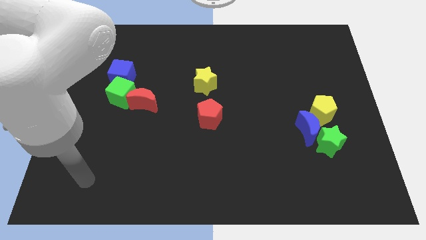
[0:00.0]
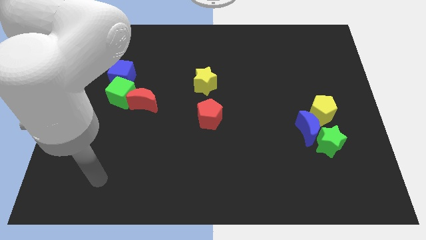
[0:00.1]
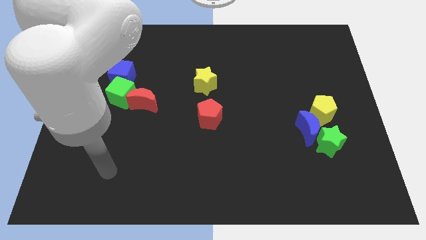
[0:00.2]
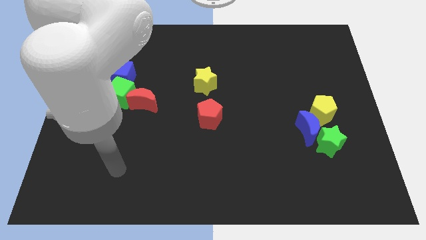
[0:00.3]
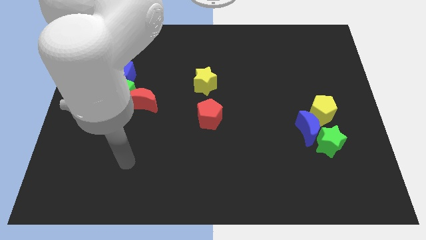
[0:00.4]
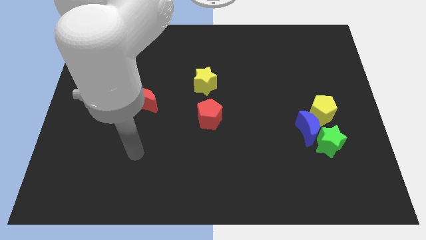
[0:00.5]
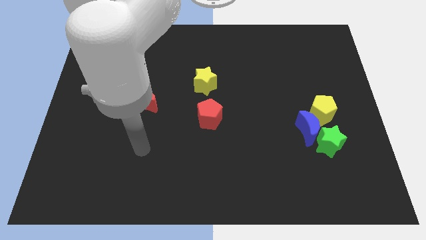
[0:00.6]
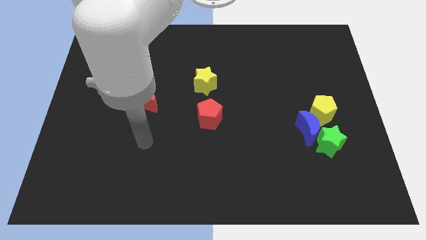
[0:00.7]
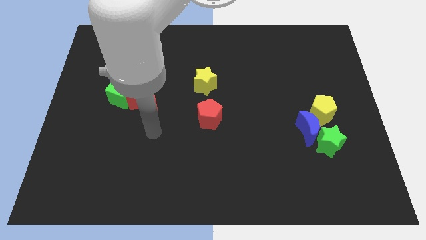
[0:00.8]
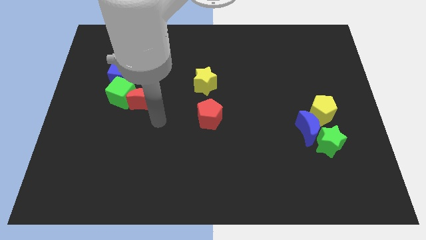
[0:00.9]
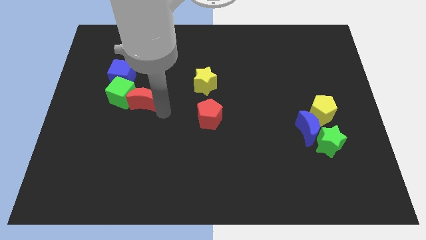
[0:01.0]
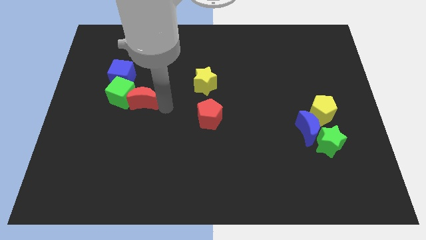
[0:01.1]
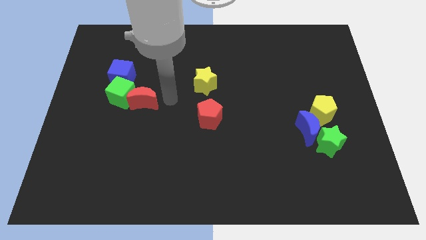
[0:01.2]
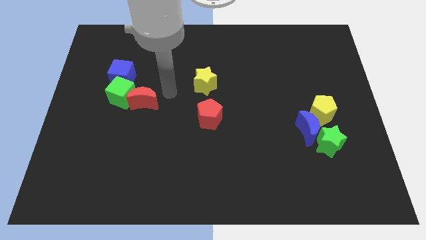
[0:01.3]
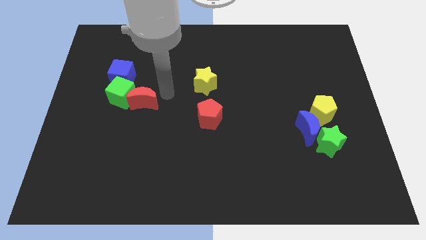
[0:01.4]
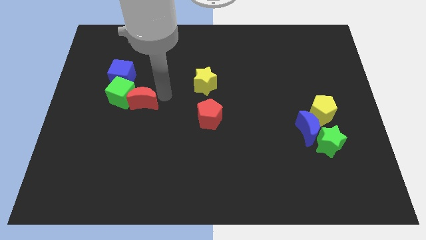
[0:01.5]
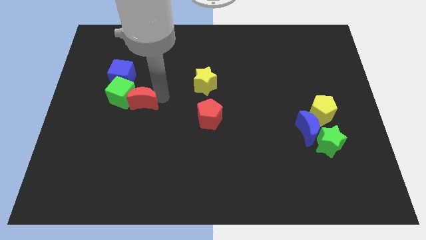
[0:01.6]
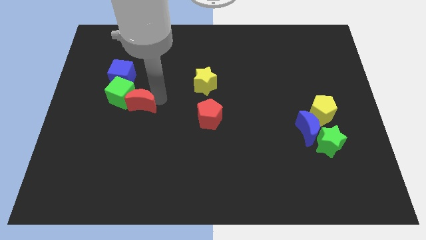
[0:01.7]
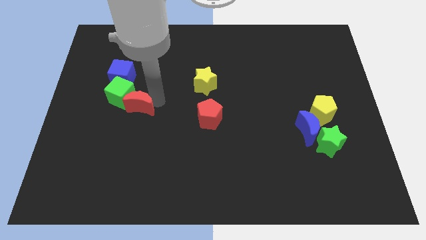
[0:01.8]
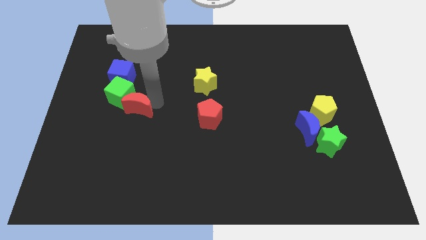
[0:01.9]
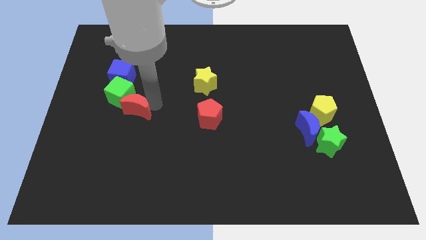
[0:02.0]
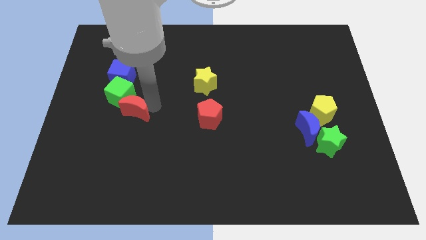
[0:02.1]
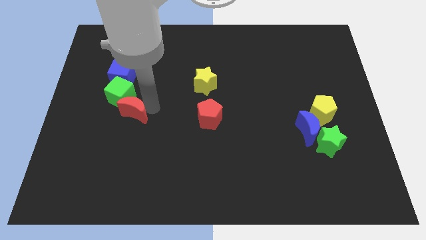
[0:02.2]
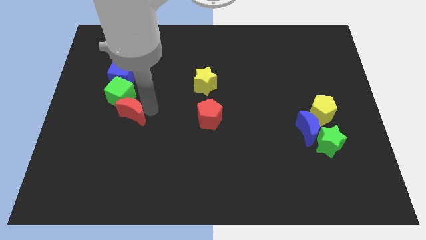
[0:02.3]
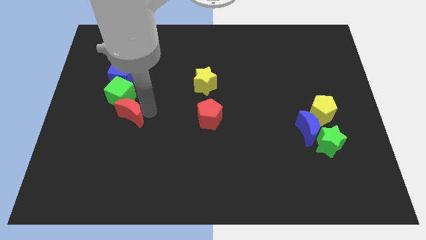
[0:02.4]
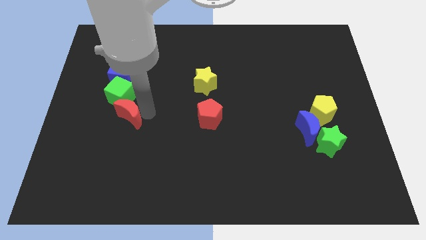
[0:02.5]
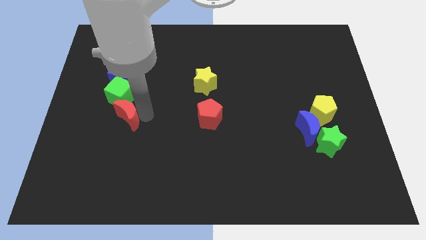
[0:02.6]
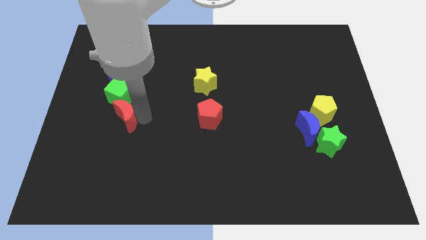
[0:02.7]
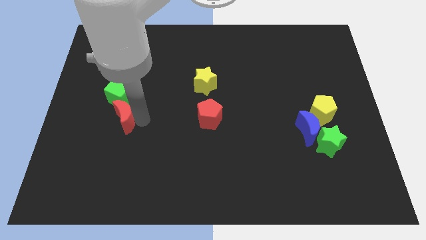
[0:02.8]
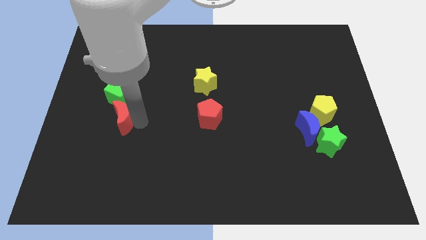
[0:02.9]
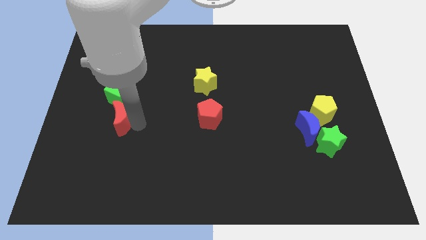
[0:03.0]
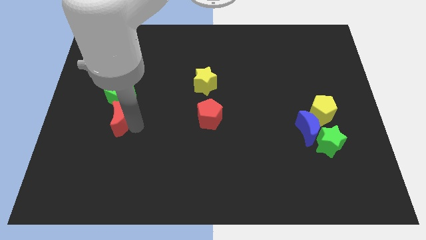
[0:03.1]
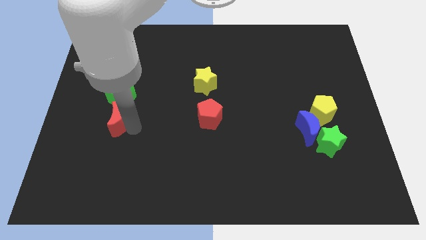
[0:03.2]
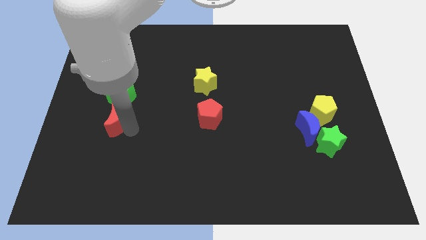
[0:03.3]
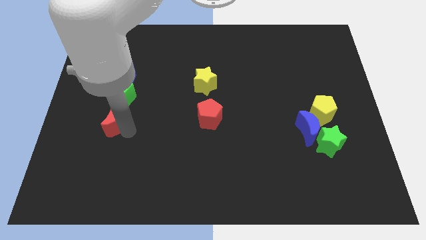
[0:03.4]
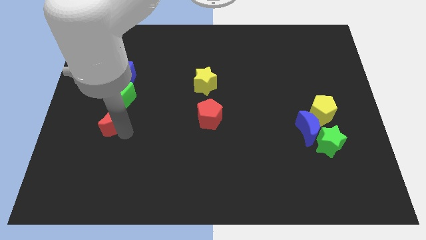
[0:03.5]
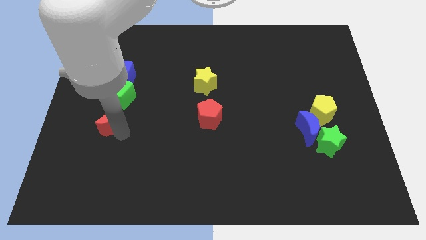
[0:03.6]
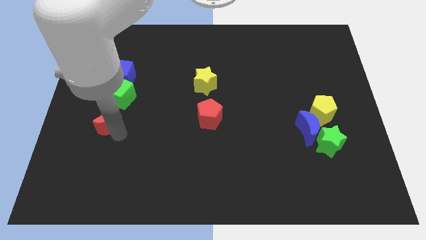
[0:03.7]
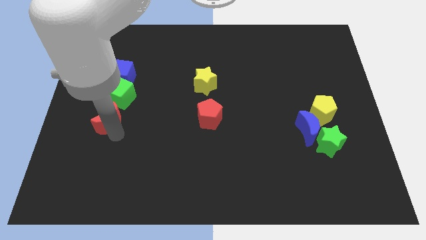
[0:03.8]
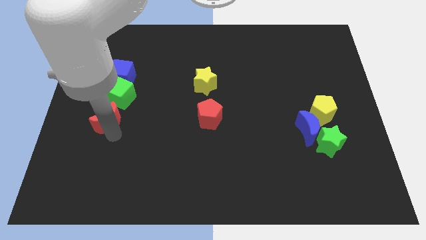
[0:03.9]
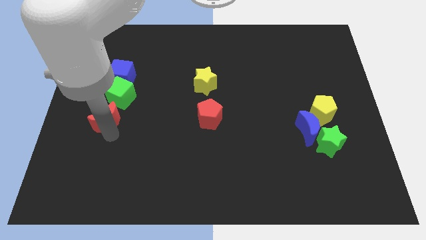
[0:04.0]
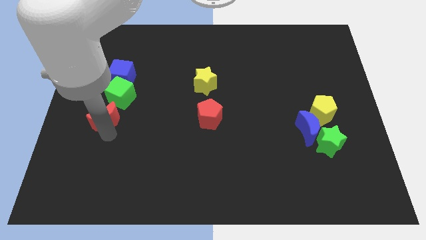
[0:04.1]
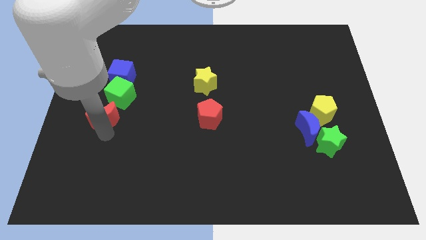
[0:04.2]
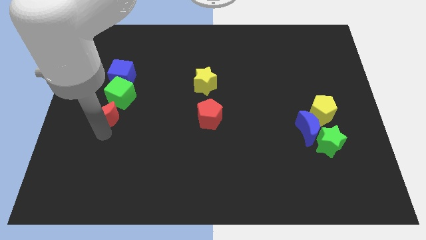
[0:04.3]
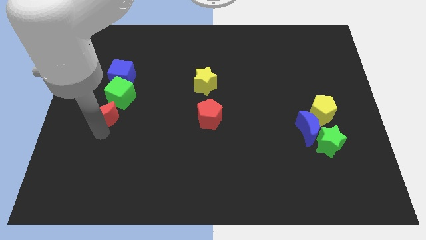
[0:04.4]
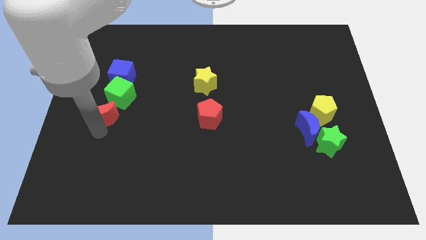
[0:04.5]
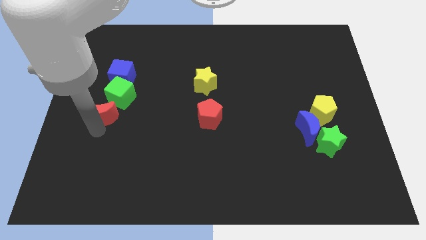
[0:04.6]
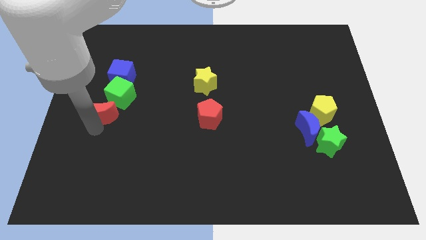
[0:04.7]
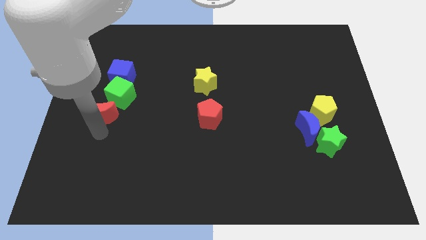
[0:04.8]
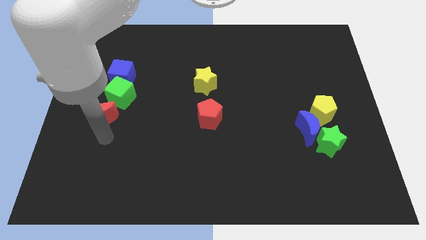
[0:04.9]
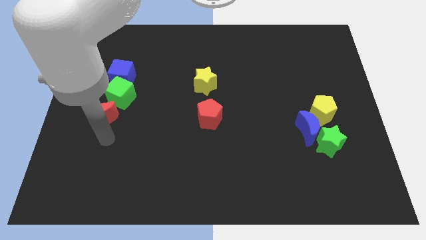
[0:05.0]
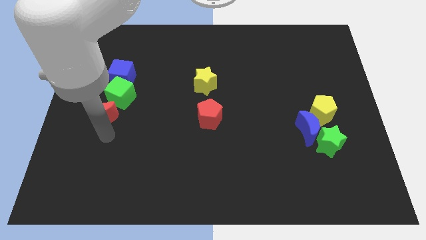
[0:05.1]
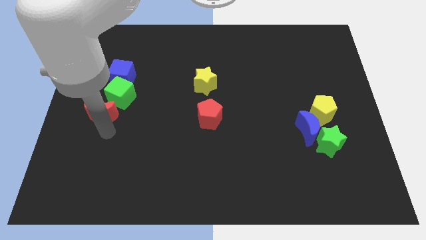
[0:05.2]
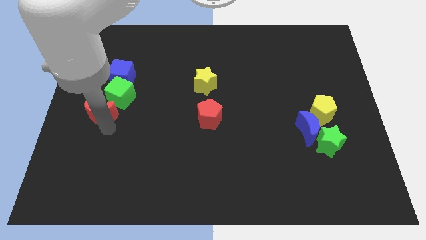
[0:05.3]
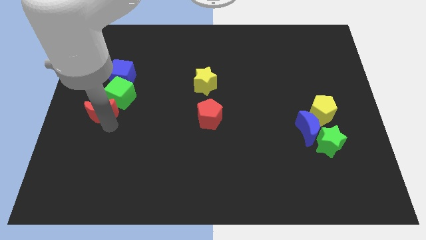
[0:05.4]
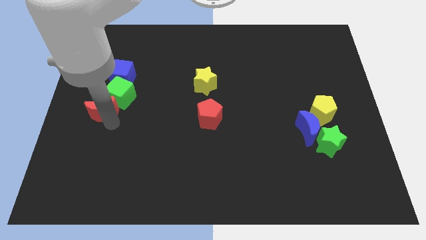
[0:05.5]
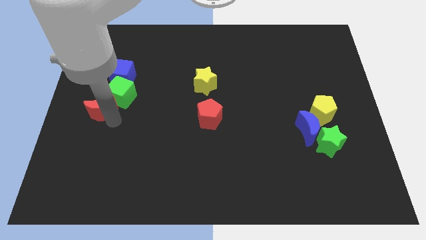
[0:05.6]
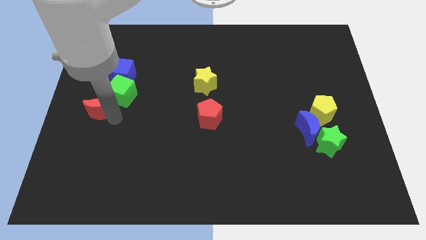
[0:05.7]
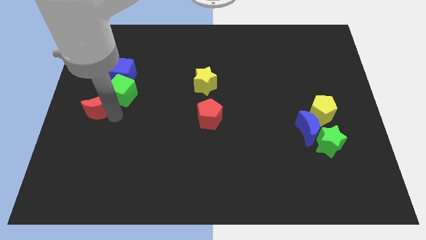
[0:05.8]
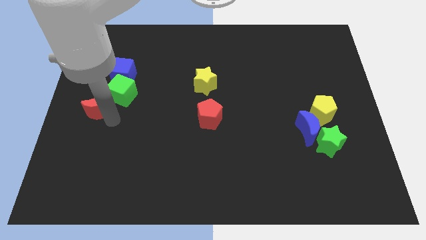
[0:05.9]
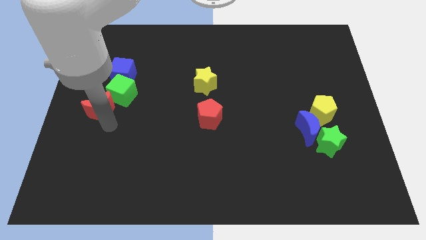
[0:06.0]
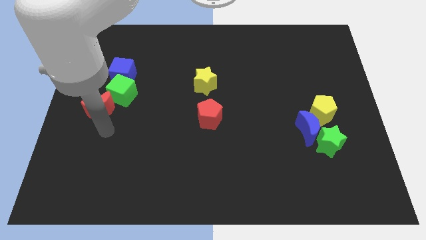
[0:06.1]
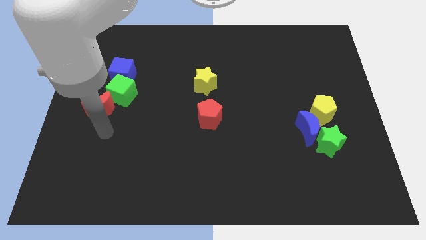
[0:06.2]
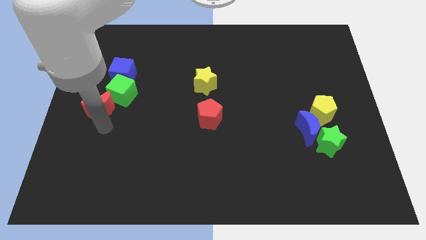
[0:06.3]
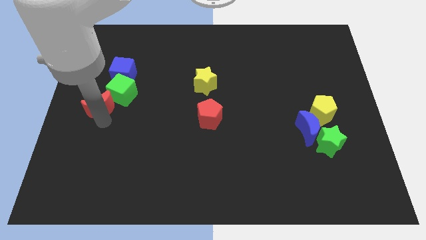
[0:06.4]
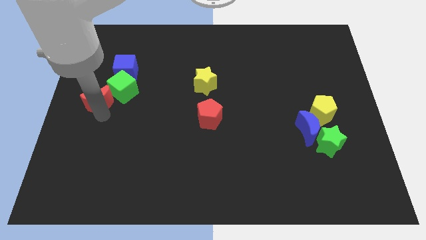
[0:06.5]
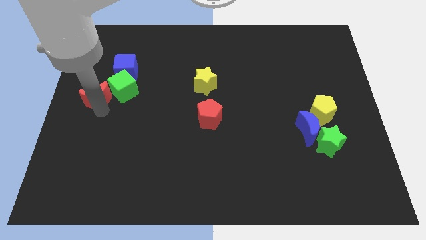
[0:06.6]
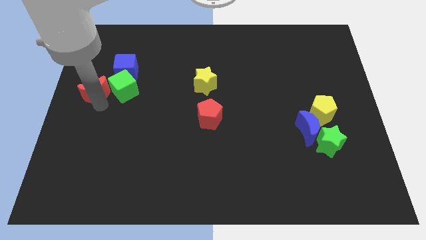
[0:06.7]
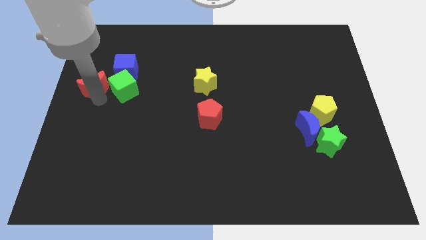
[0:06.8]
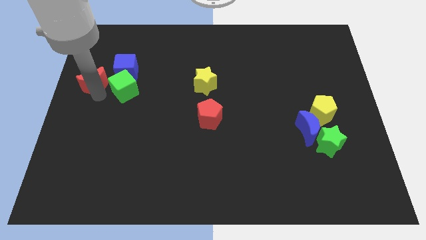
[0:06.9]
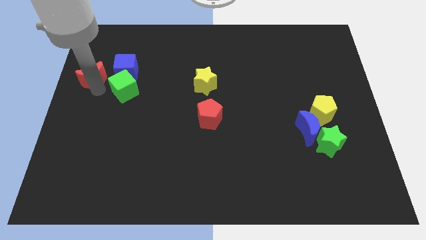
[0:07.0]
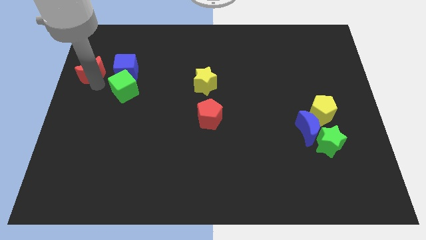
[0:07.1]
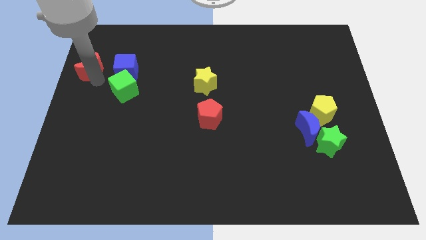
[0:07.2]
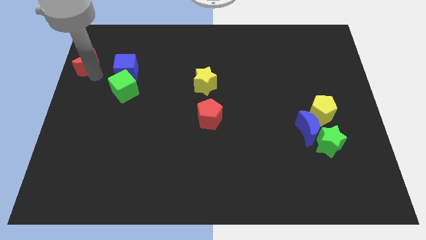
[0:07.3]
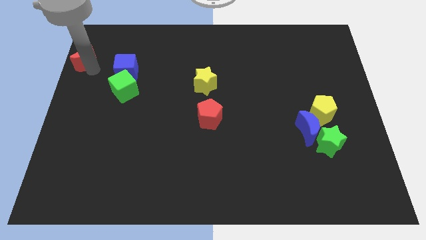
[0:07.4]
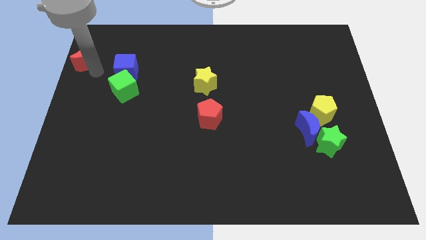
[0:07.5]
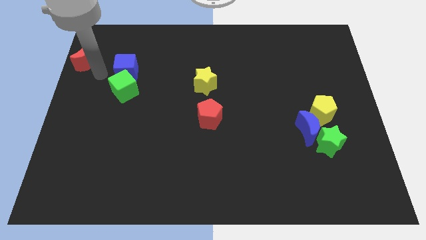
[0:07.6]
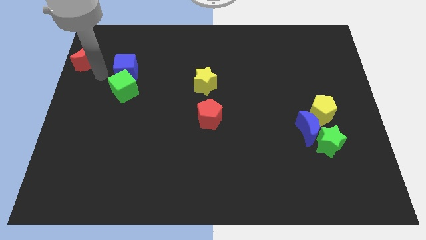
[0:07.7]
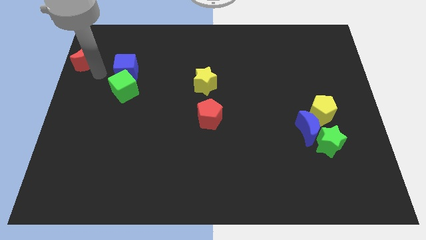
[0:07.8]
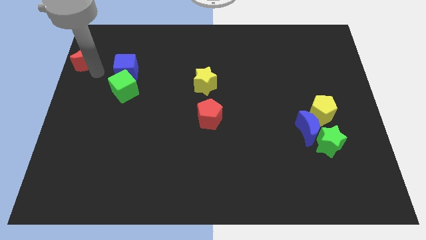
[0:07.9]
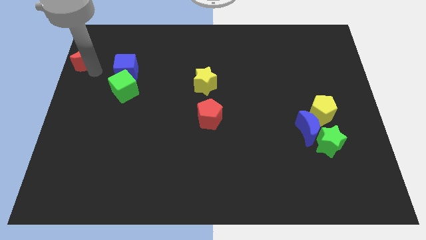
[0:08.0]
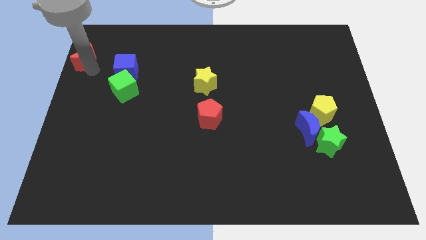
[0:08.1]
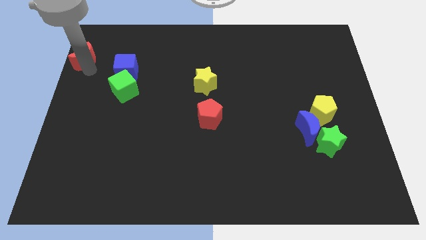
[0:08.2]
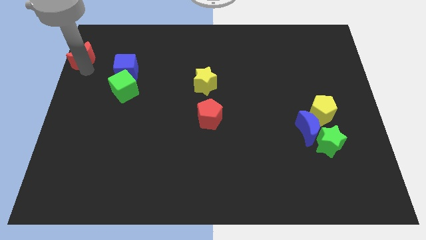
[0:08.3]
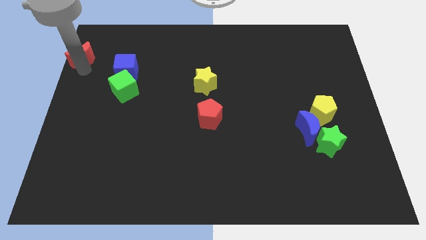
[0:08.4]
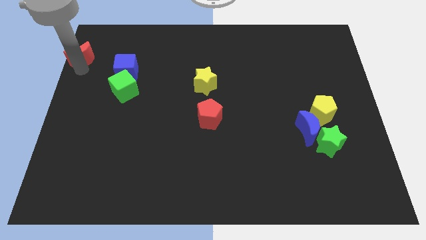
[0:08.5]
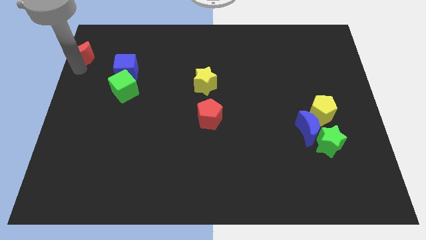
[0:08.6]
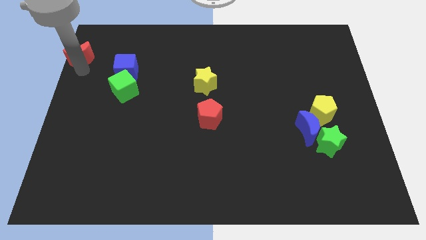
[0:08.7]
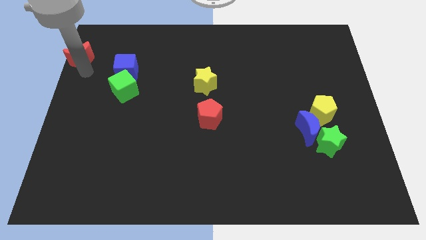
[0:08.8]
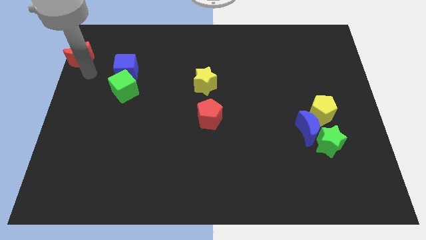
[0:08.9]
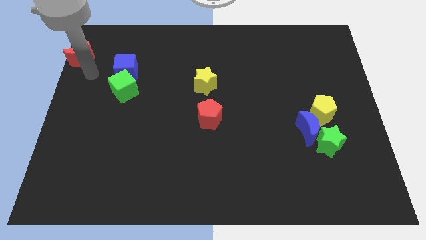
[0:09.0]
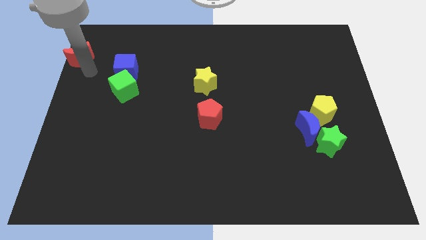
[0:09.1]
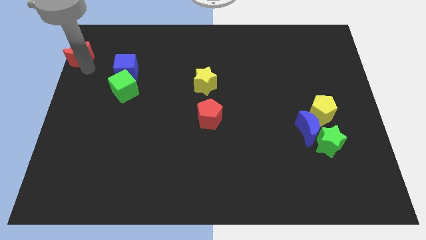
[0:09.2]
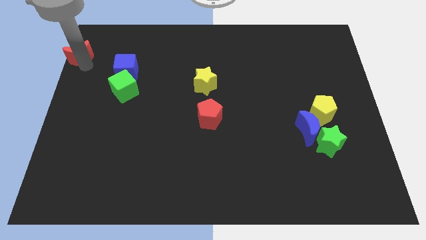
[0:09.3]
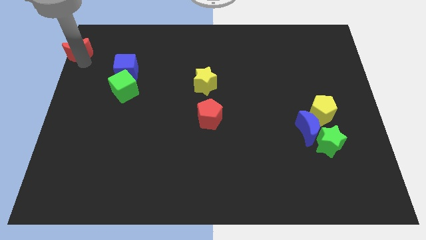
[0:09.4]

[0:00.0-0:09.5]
move the red moon to the top left corner
